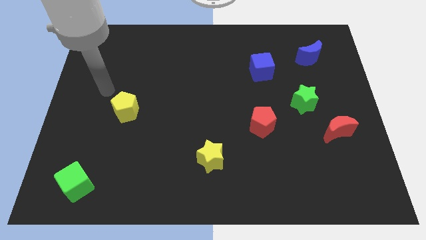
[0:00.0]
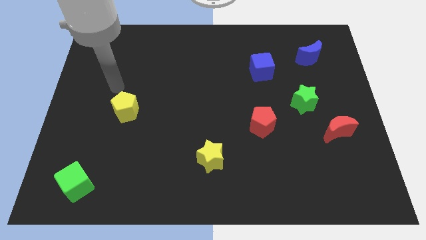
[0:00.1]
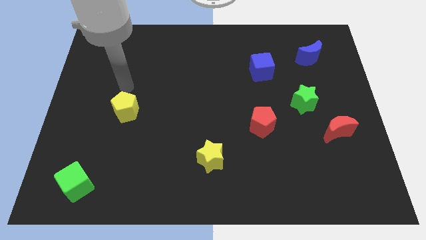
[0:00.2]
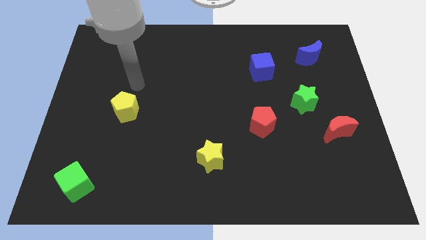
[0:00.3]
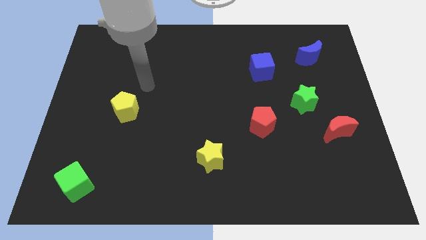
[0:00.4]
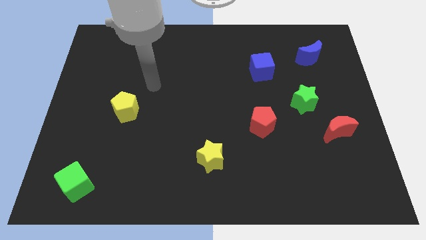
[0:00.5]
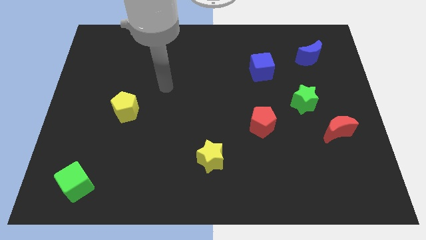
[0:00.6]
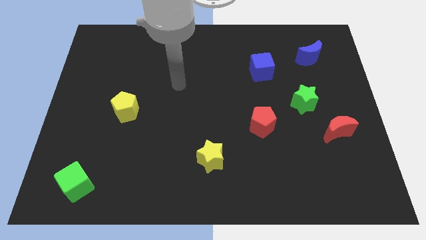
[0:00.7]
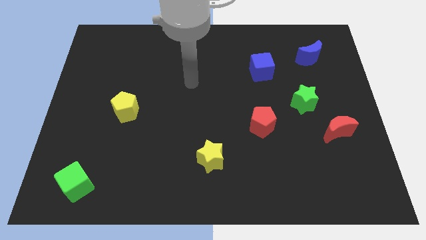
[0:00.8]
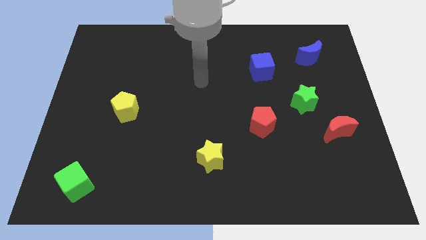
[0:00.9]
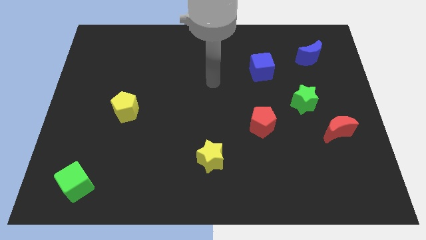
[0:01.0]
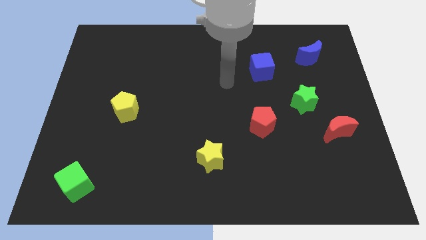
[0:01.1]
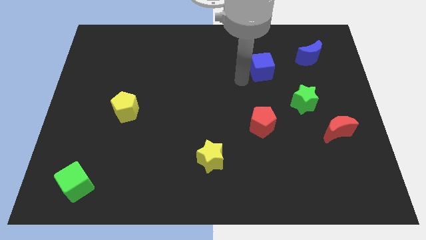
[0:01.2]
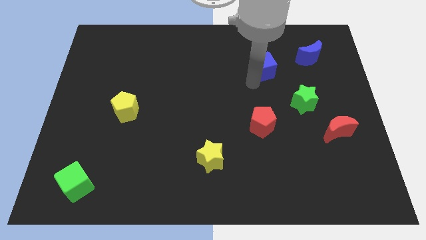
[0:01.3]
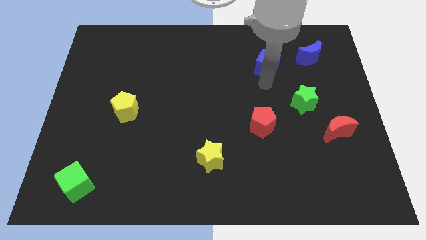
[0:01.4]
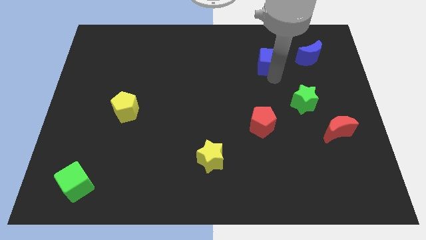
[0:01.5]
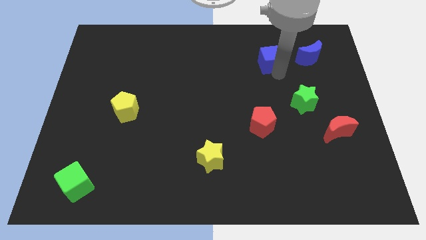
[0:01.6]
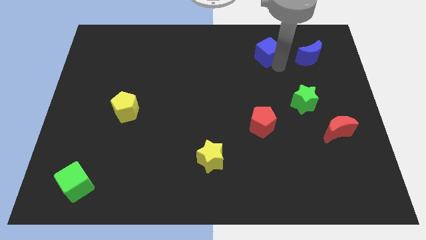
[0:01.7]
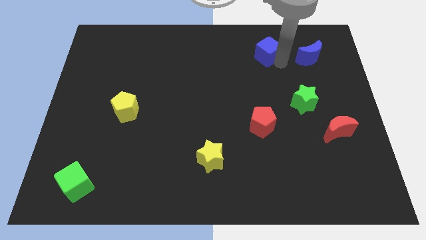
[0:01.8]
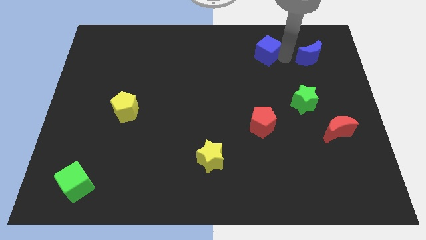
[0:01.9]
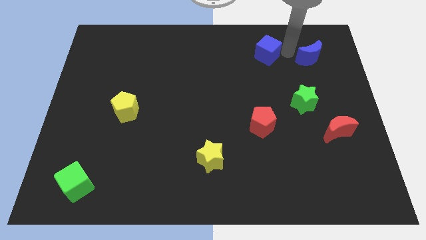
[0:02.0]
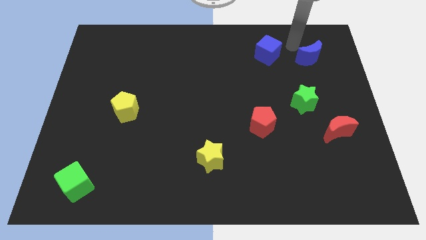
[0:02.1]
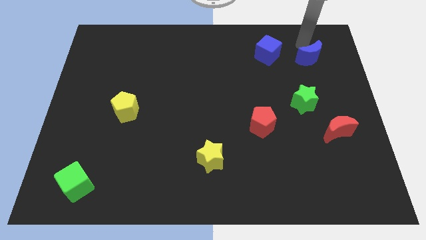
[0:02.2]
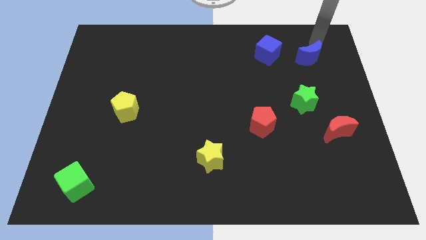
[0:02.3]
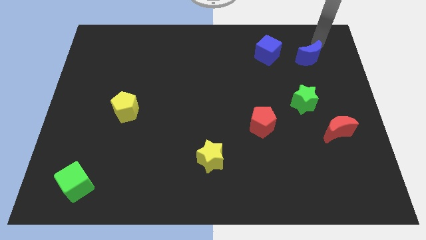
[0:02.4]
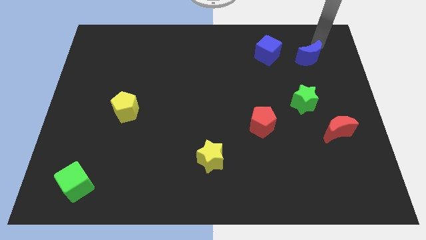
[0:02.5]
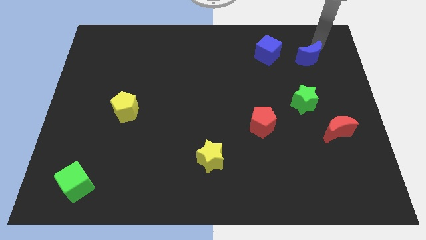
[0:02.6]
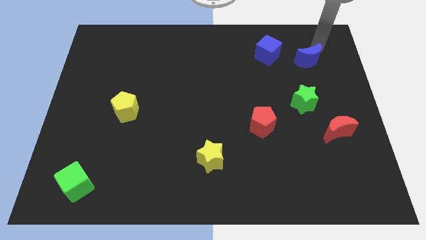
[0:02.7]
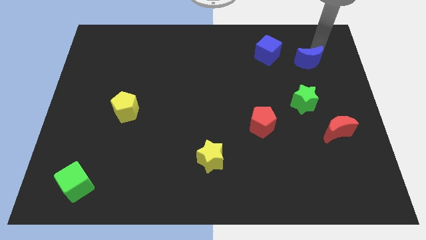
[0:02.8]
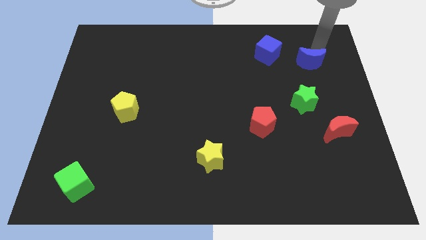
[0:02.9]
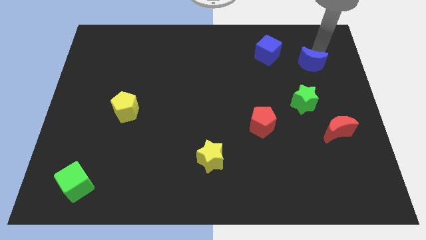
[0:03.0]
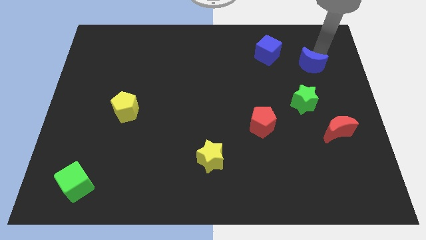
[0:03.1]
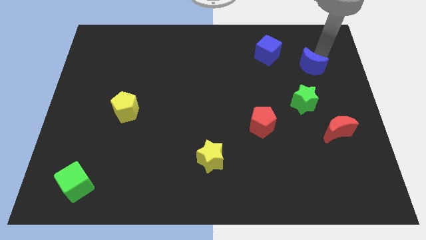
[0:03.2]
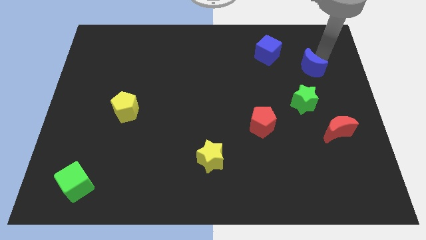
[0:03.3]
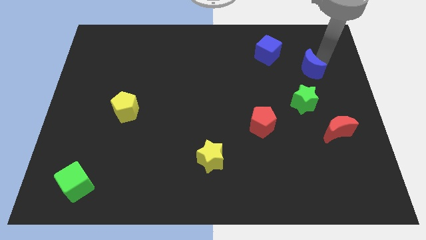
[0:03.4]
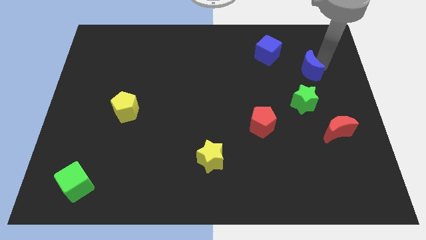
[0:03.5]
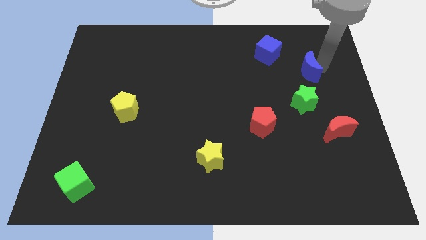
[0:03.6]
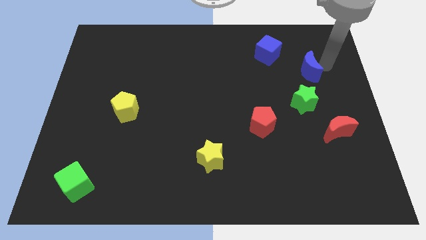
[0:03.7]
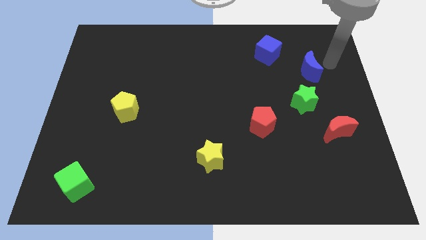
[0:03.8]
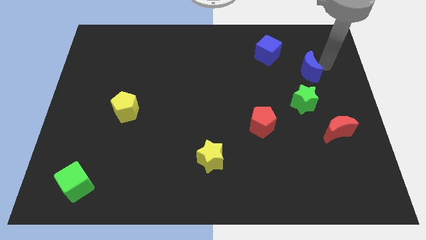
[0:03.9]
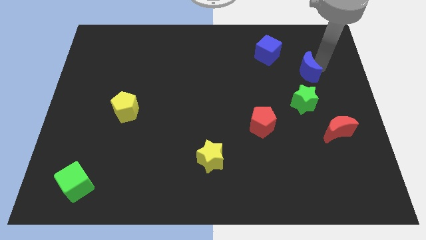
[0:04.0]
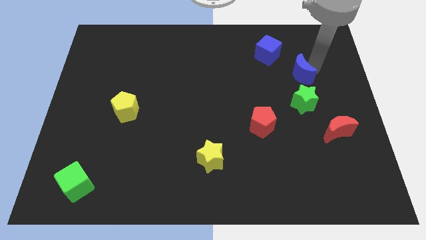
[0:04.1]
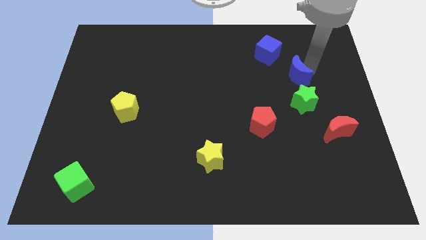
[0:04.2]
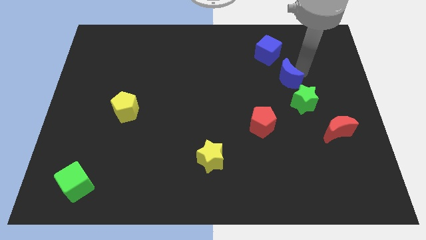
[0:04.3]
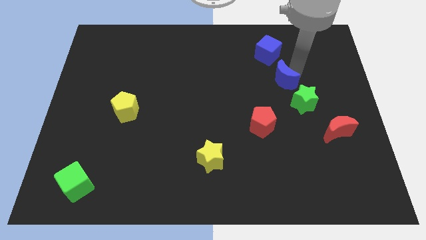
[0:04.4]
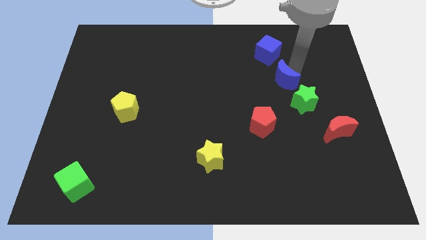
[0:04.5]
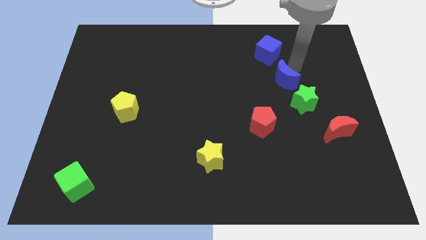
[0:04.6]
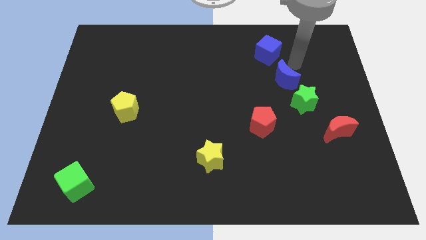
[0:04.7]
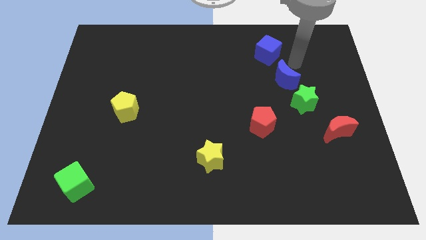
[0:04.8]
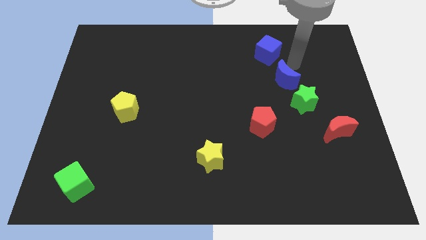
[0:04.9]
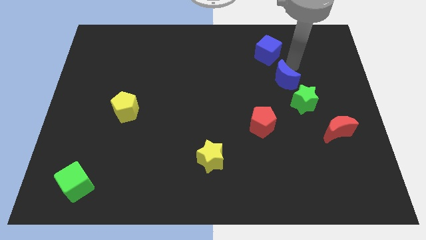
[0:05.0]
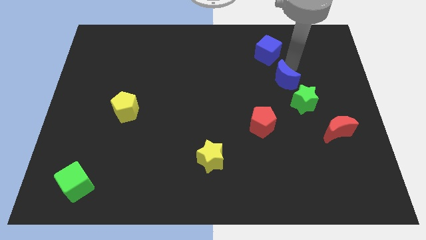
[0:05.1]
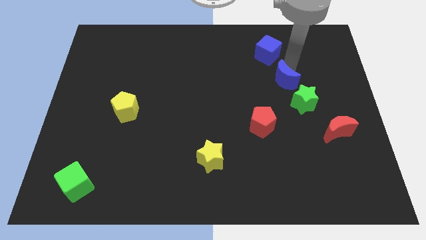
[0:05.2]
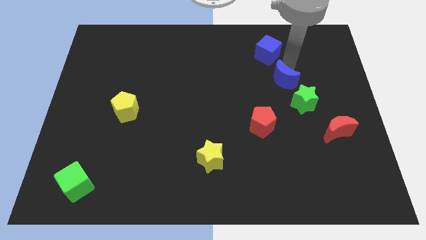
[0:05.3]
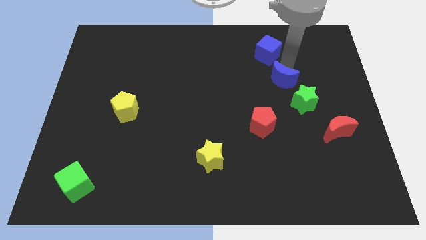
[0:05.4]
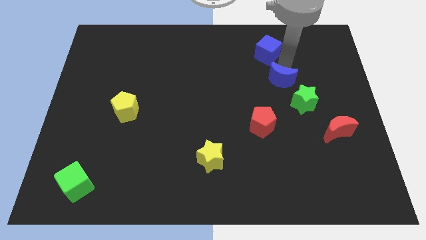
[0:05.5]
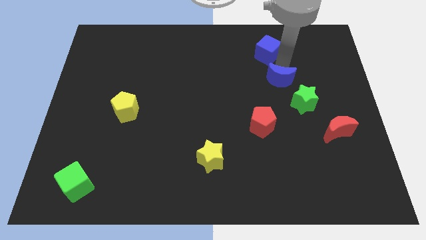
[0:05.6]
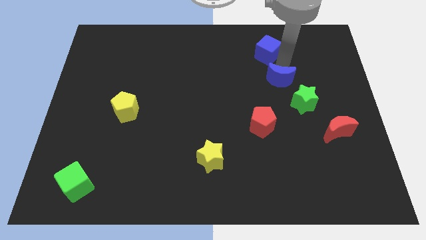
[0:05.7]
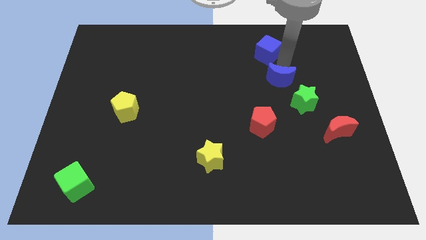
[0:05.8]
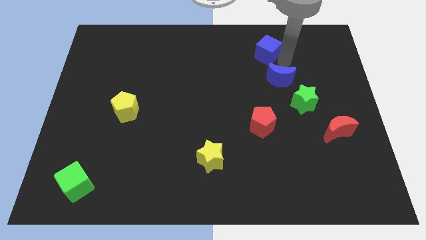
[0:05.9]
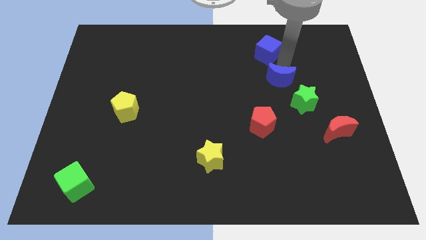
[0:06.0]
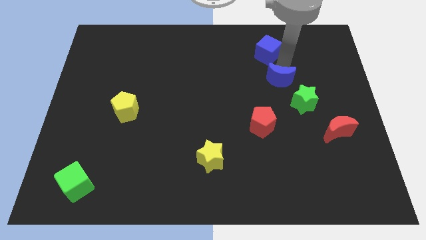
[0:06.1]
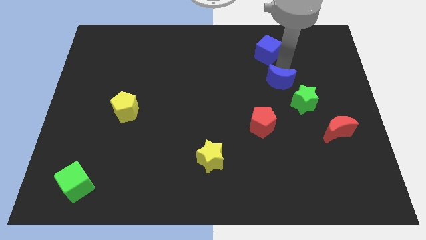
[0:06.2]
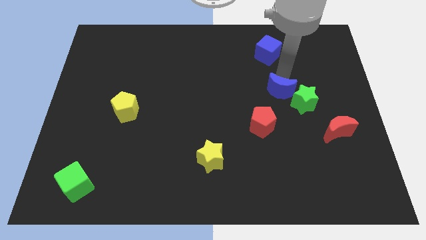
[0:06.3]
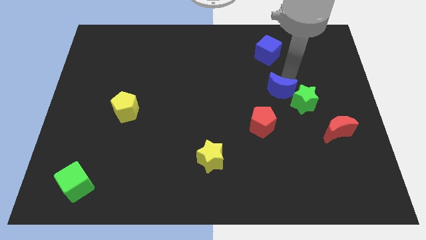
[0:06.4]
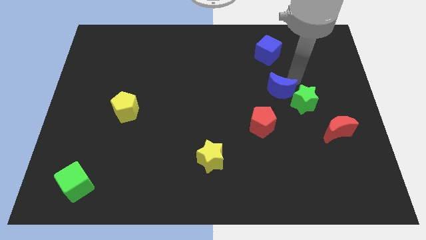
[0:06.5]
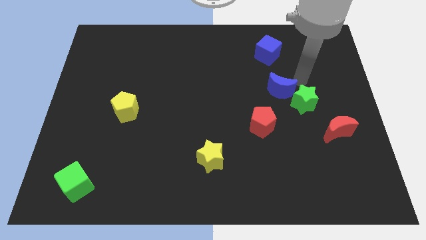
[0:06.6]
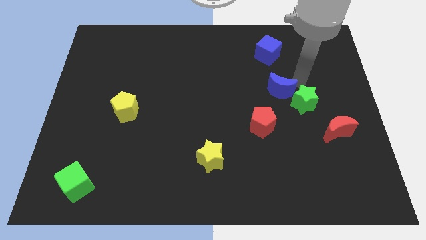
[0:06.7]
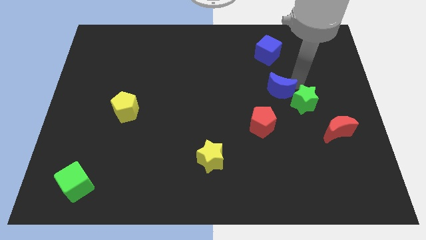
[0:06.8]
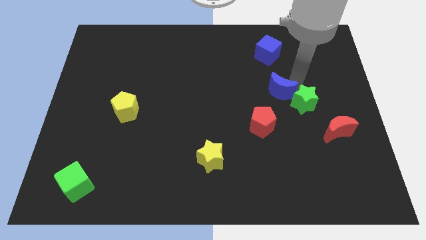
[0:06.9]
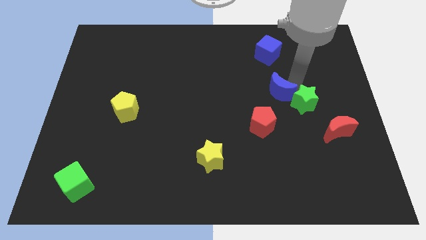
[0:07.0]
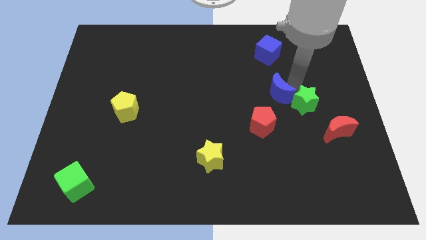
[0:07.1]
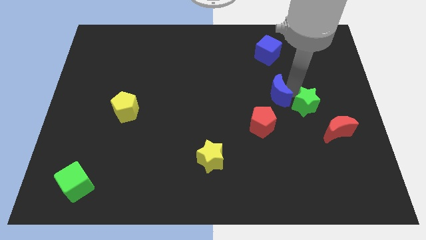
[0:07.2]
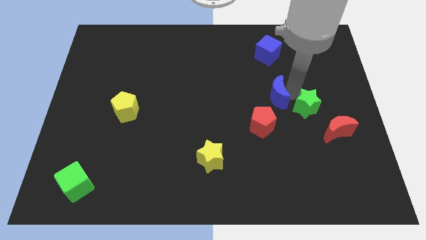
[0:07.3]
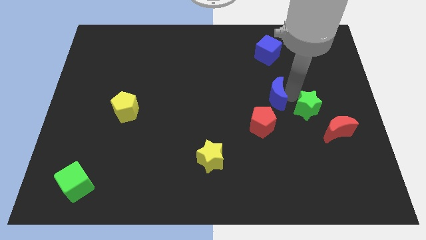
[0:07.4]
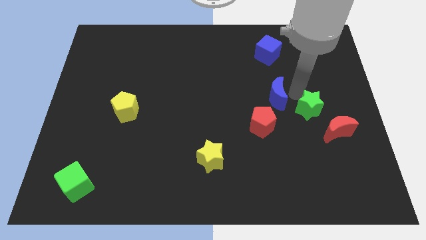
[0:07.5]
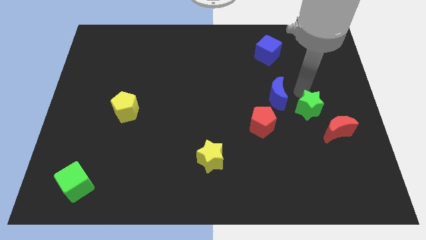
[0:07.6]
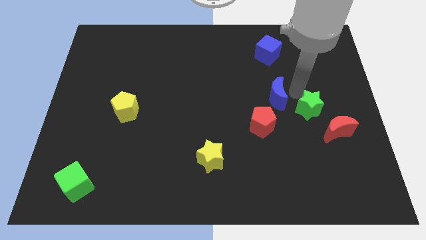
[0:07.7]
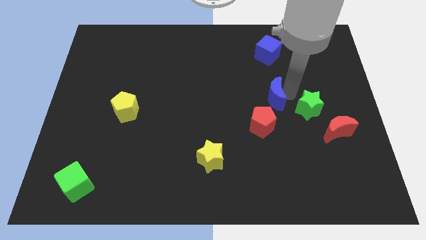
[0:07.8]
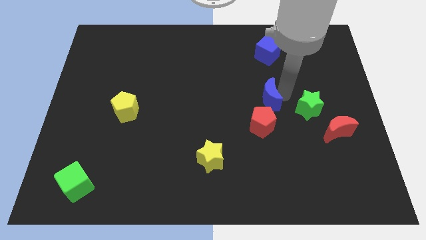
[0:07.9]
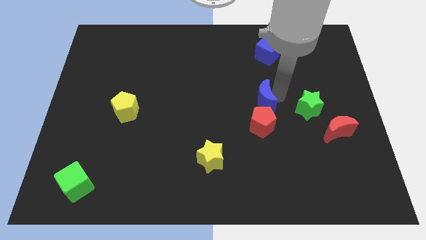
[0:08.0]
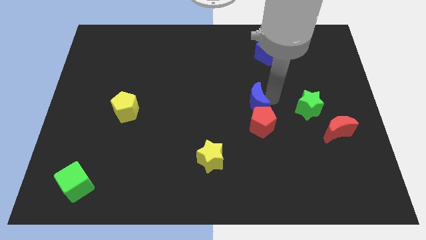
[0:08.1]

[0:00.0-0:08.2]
move the blue moon downwards and to the left
